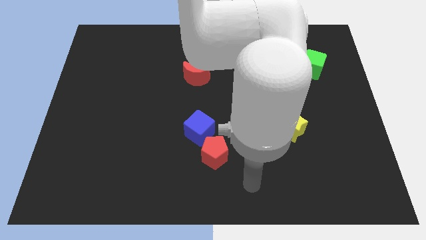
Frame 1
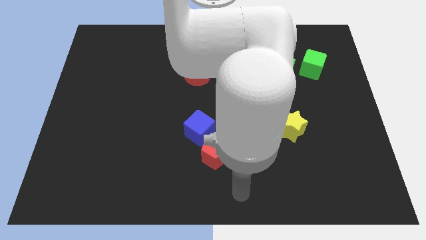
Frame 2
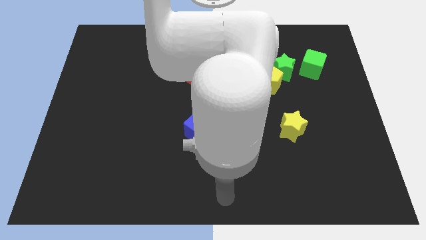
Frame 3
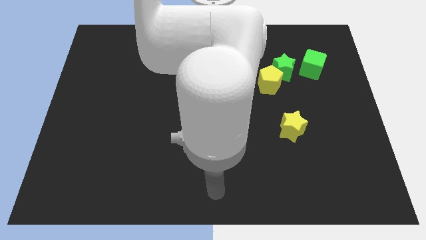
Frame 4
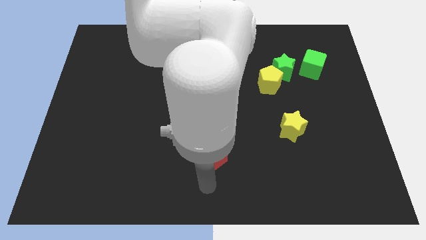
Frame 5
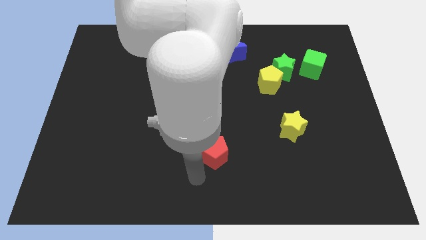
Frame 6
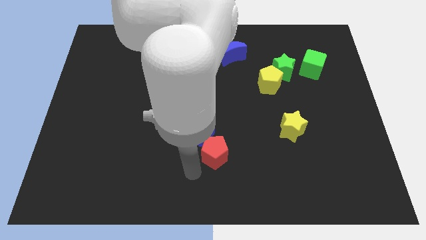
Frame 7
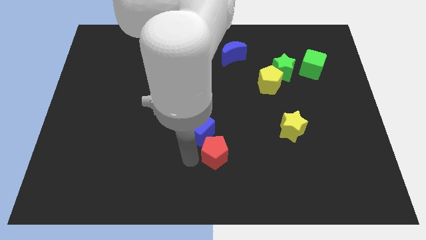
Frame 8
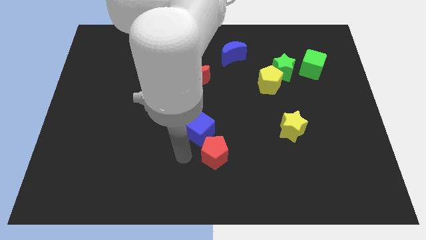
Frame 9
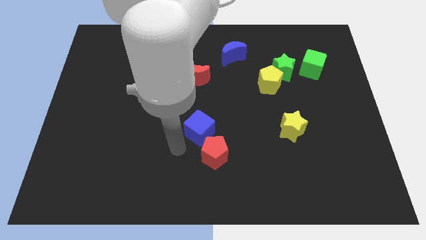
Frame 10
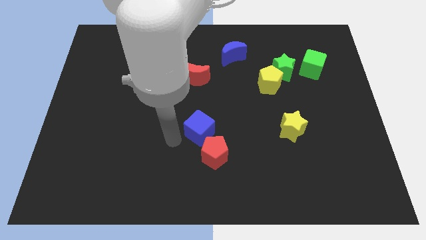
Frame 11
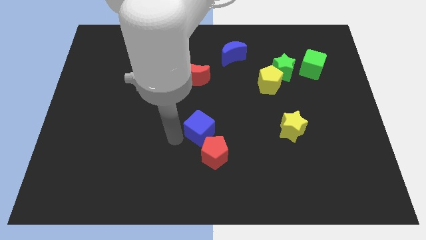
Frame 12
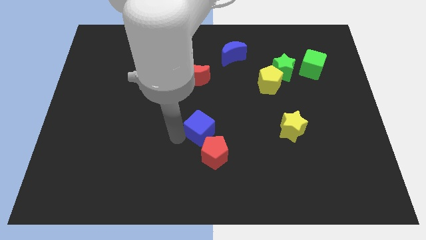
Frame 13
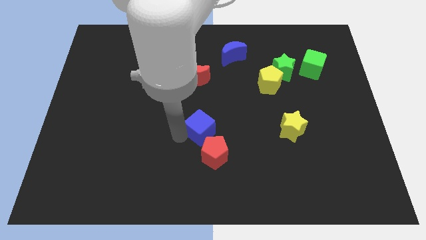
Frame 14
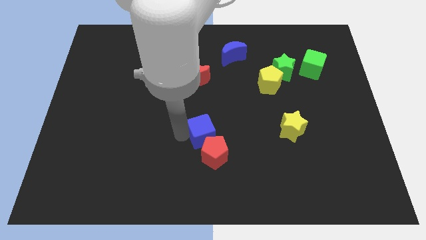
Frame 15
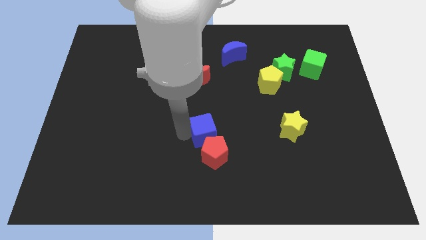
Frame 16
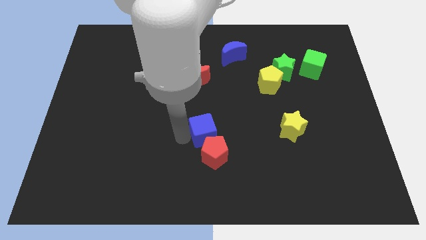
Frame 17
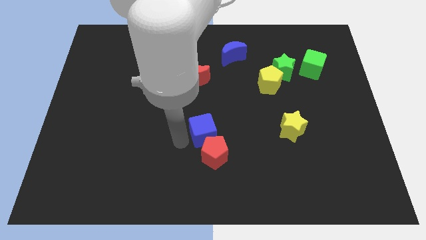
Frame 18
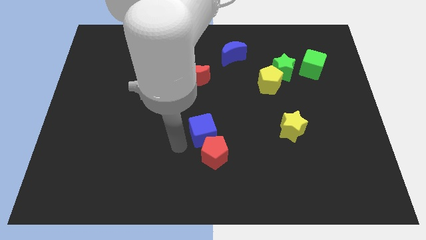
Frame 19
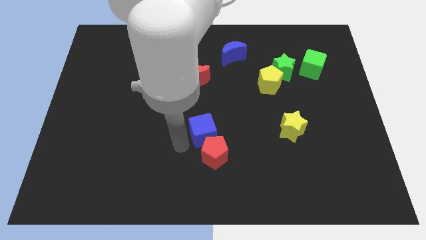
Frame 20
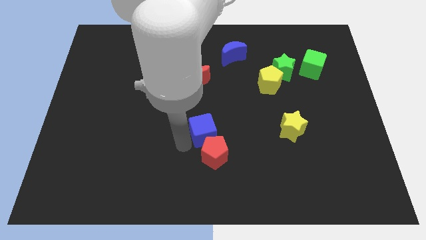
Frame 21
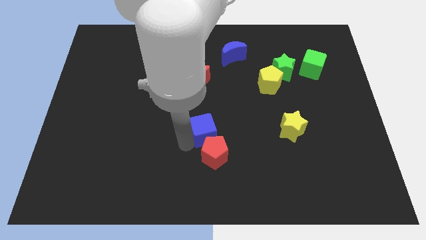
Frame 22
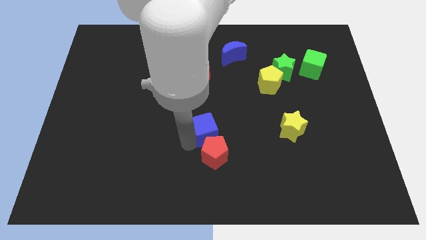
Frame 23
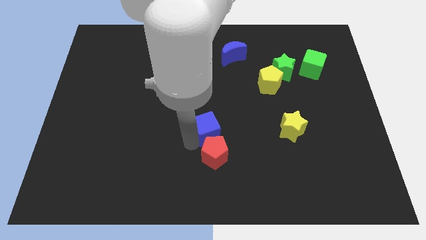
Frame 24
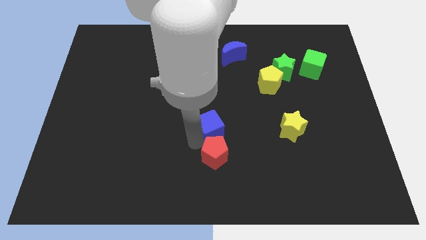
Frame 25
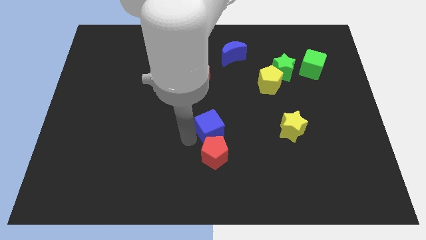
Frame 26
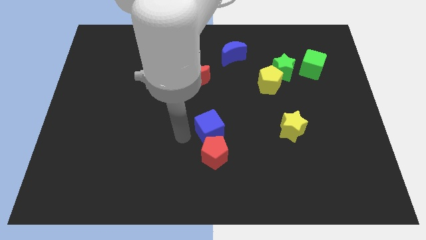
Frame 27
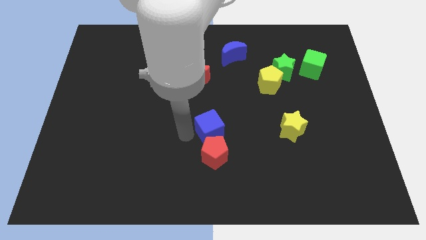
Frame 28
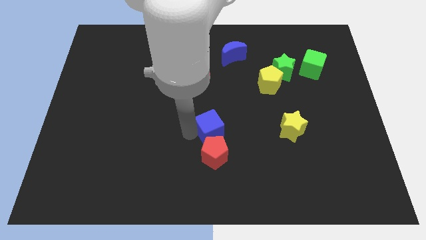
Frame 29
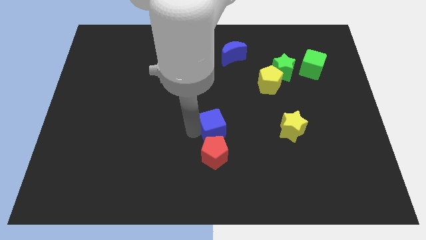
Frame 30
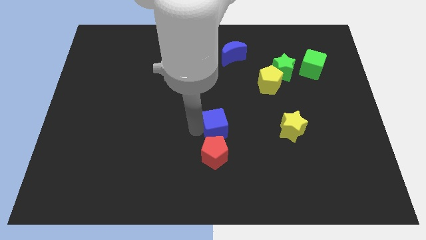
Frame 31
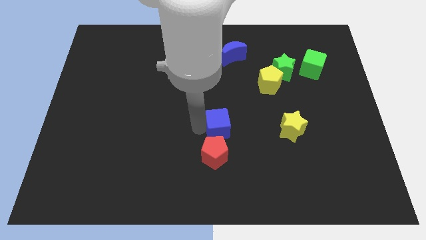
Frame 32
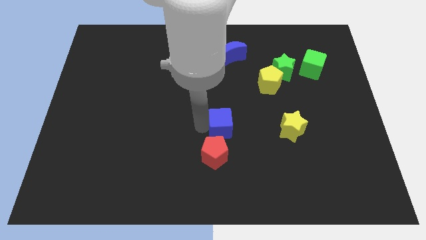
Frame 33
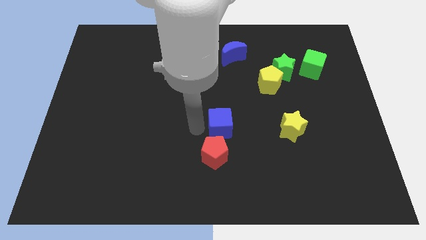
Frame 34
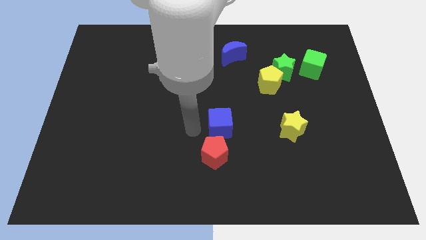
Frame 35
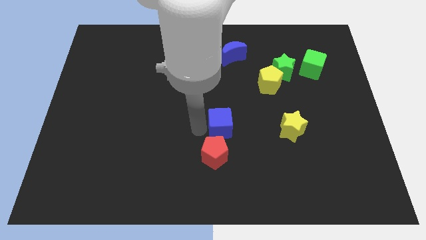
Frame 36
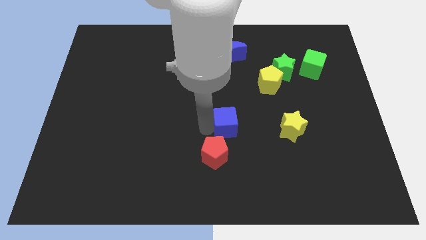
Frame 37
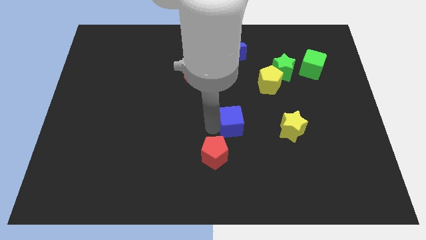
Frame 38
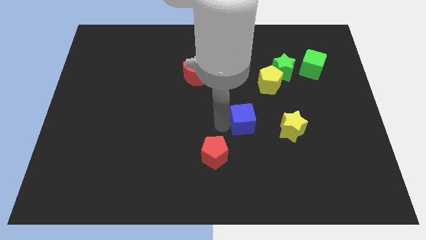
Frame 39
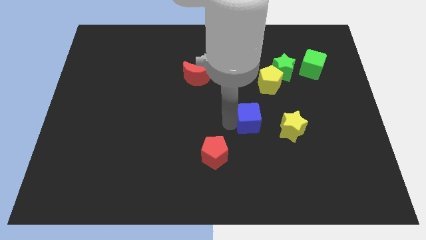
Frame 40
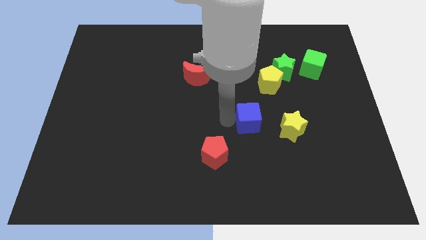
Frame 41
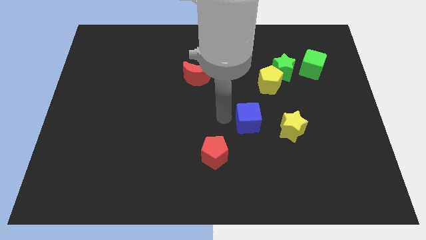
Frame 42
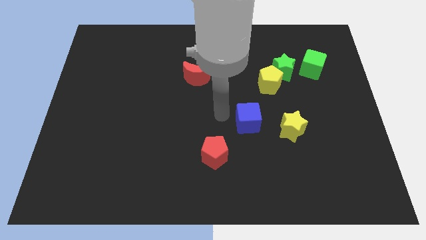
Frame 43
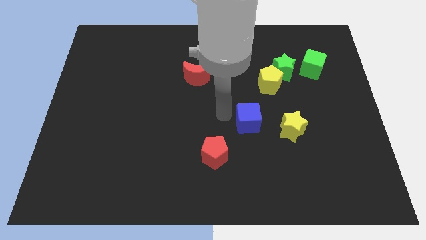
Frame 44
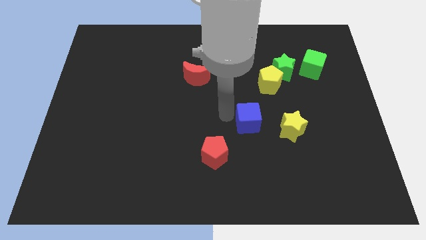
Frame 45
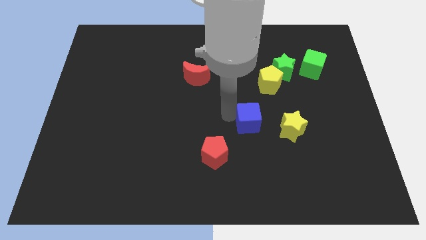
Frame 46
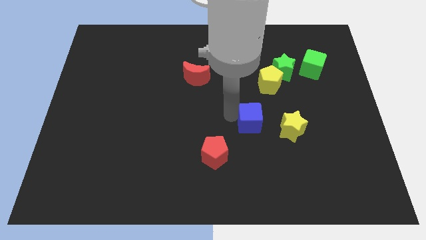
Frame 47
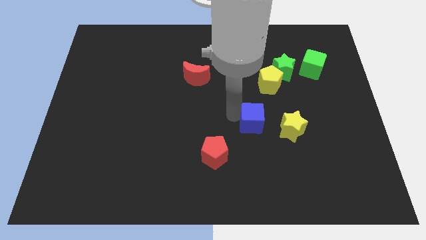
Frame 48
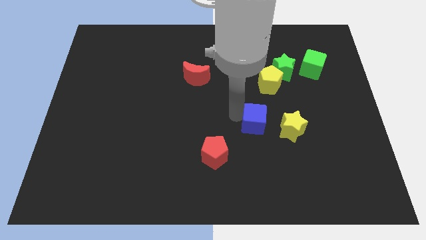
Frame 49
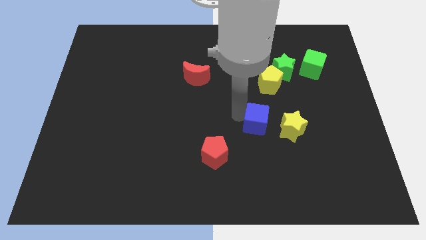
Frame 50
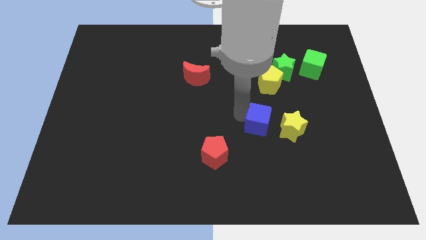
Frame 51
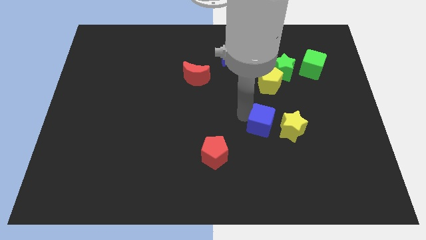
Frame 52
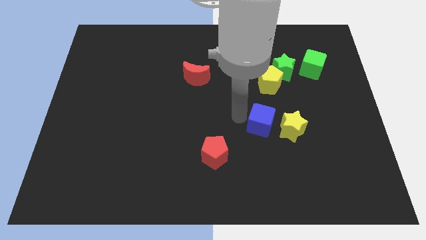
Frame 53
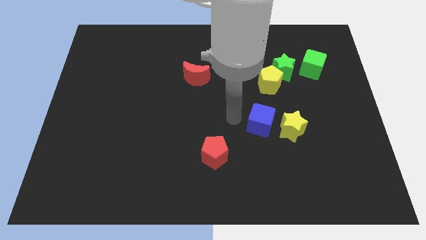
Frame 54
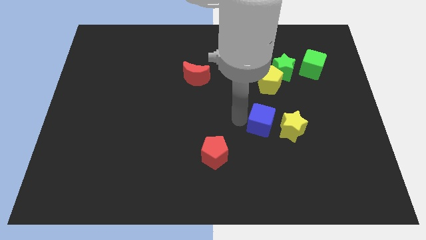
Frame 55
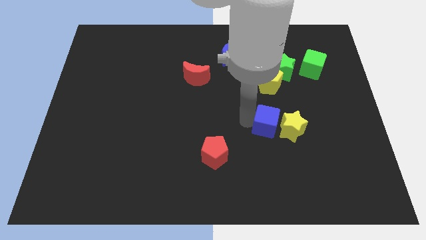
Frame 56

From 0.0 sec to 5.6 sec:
slide the blue cube to the yellow star

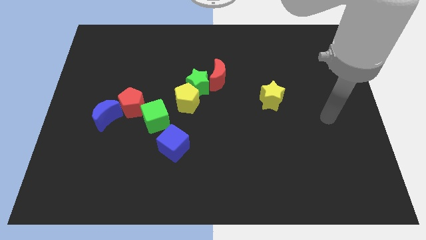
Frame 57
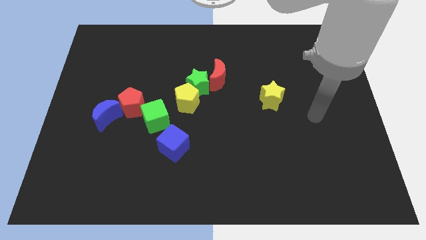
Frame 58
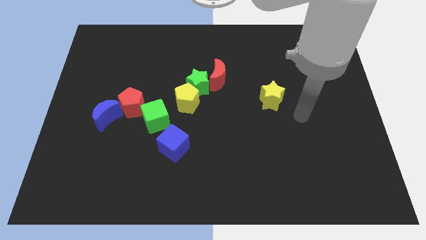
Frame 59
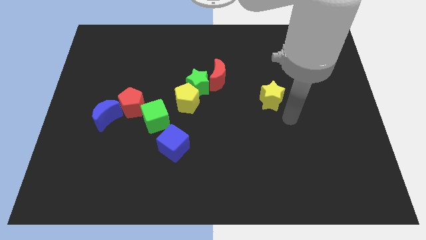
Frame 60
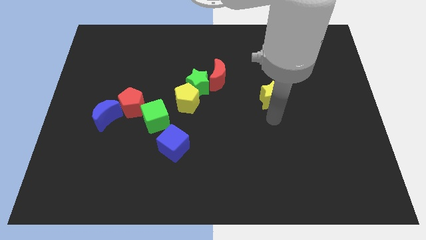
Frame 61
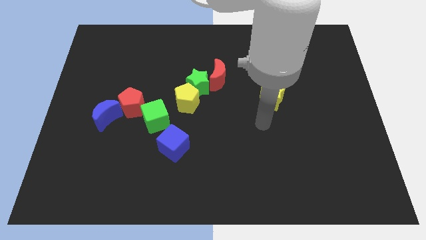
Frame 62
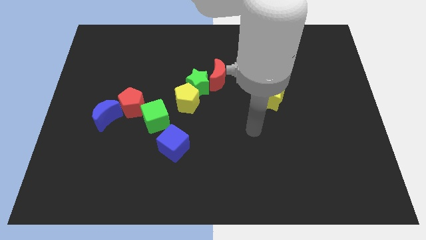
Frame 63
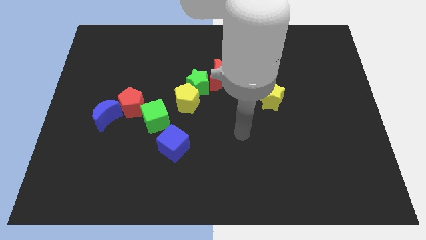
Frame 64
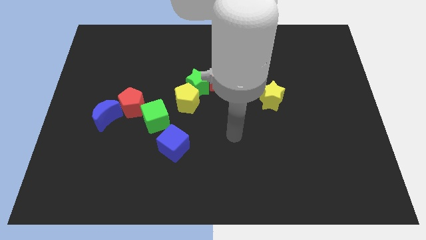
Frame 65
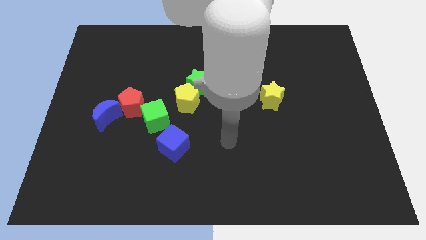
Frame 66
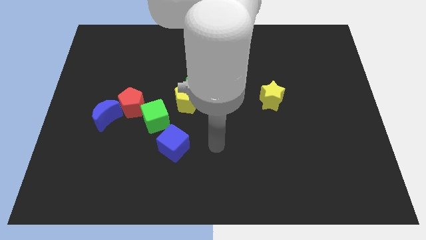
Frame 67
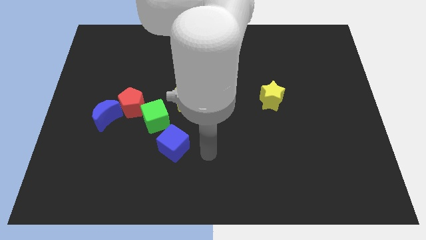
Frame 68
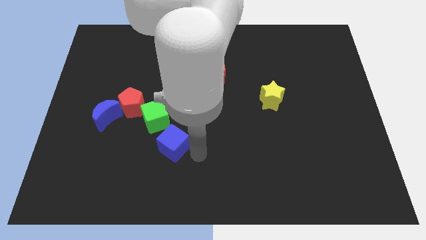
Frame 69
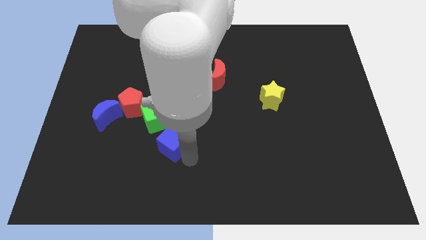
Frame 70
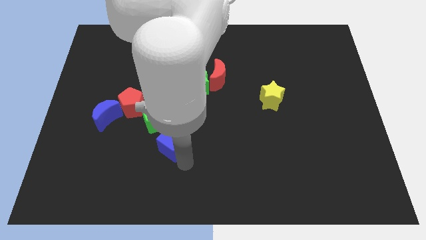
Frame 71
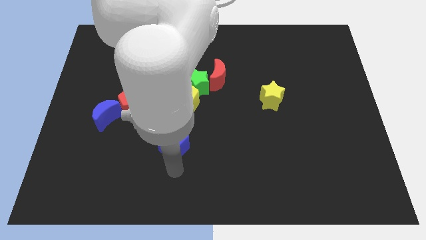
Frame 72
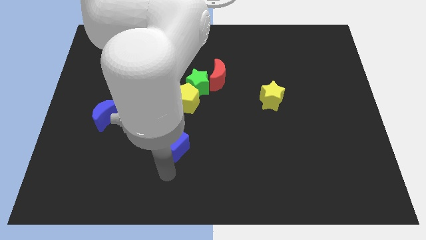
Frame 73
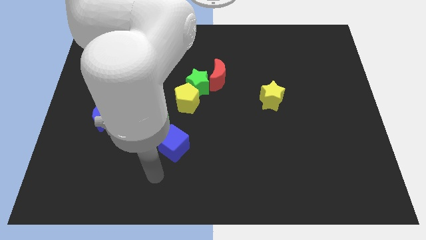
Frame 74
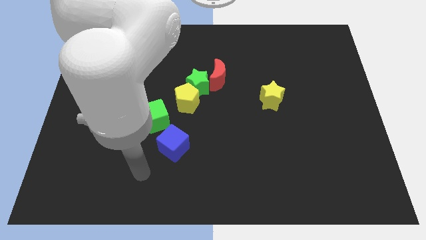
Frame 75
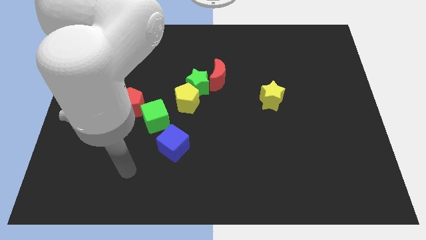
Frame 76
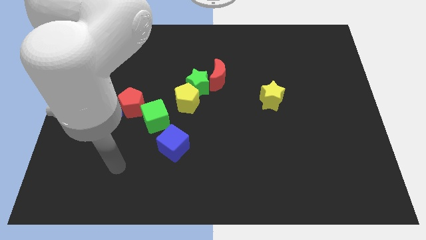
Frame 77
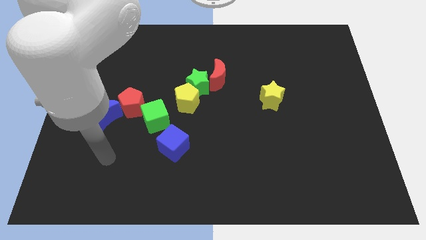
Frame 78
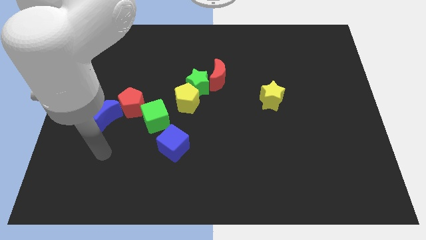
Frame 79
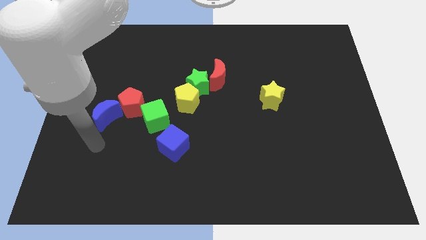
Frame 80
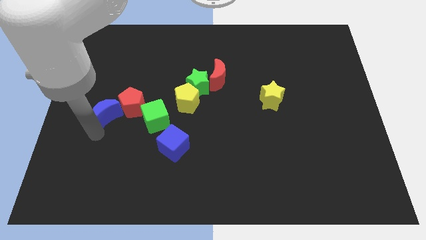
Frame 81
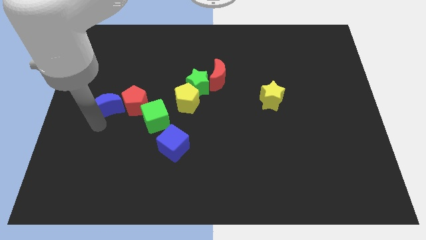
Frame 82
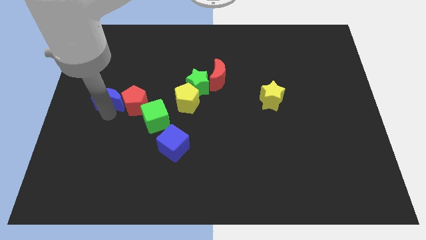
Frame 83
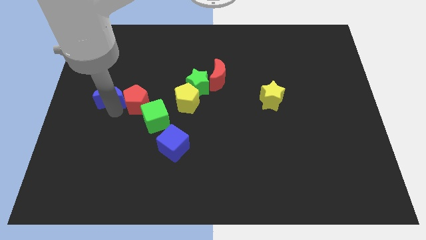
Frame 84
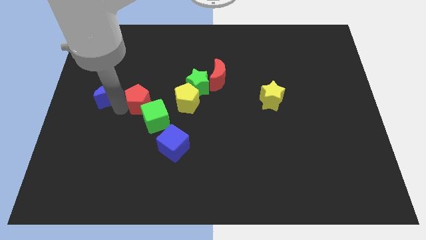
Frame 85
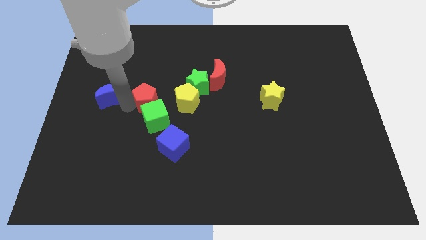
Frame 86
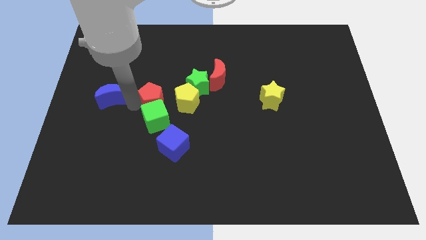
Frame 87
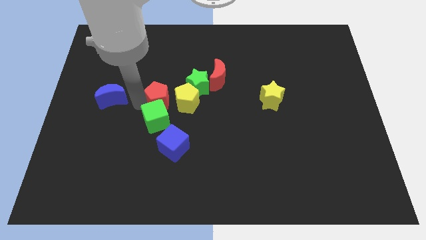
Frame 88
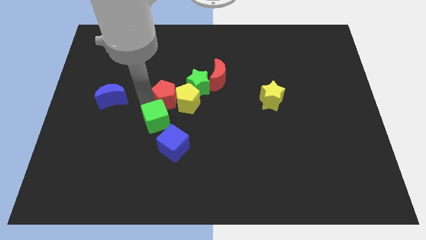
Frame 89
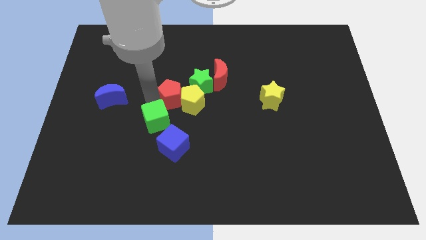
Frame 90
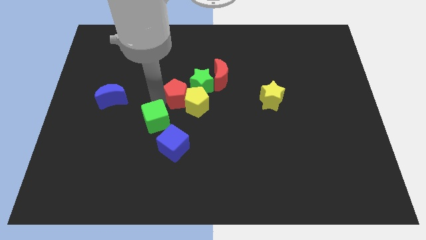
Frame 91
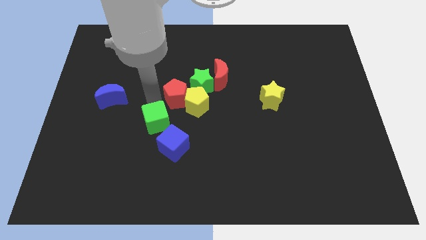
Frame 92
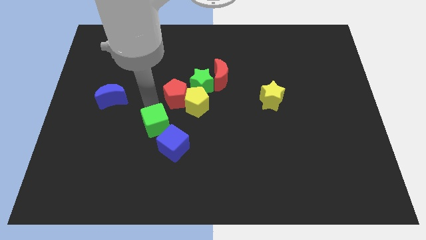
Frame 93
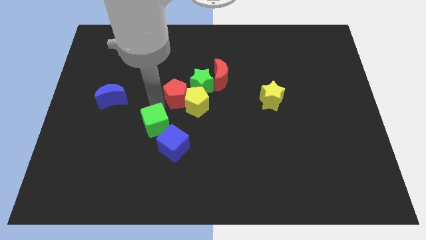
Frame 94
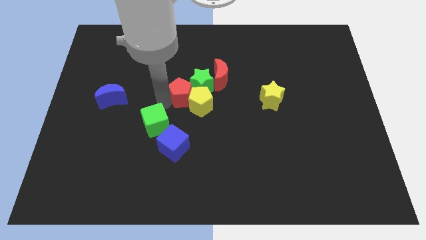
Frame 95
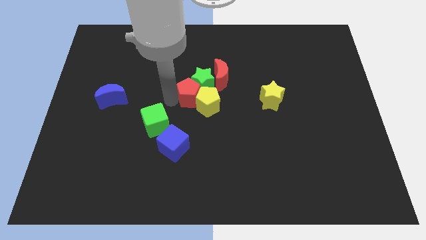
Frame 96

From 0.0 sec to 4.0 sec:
push the red pentagon next to the green star
